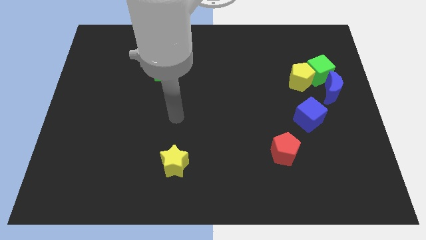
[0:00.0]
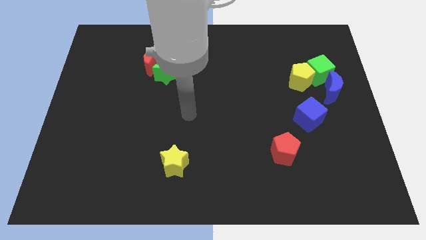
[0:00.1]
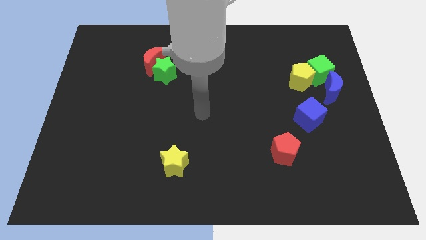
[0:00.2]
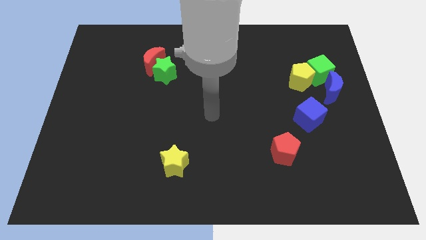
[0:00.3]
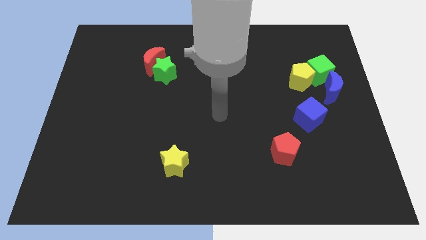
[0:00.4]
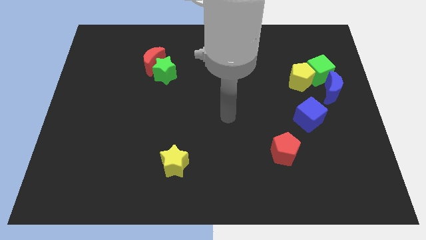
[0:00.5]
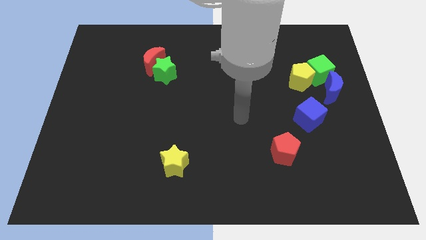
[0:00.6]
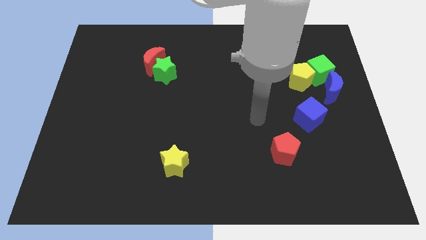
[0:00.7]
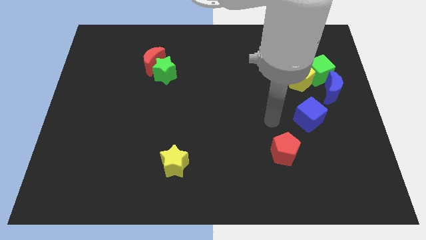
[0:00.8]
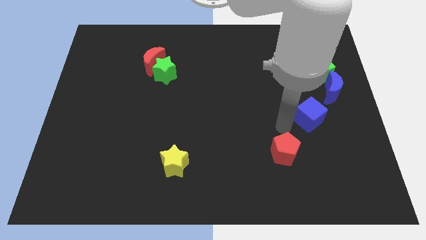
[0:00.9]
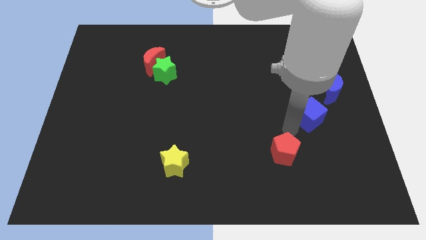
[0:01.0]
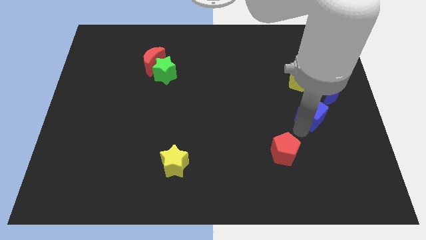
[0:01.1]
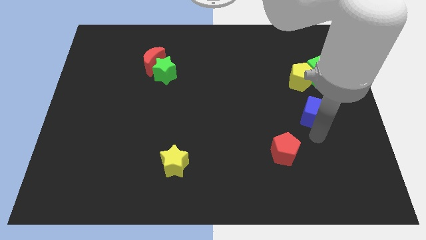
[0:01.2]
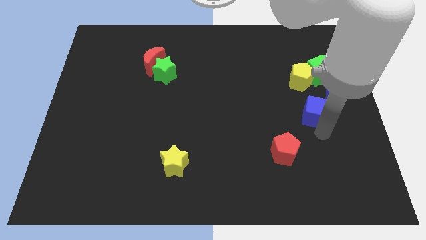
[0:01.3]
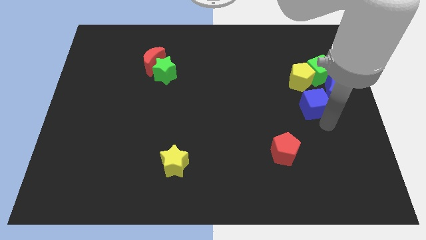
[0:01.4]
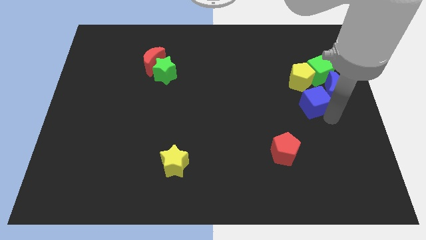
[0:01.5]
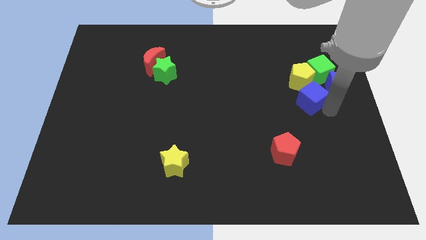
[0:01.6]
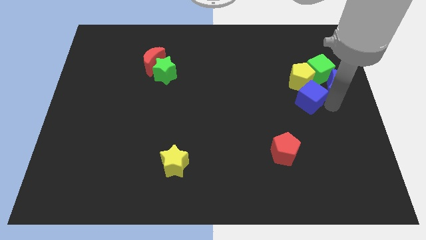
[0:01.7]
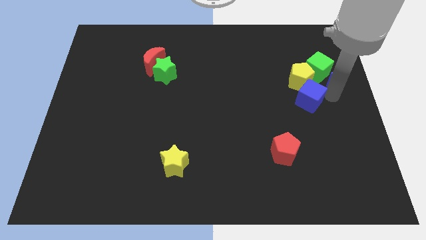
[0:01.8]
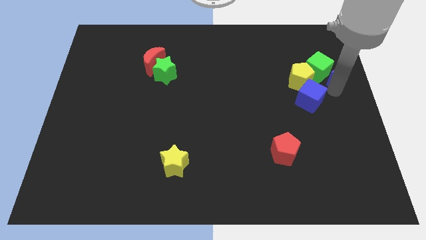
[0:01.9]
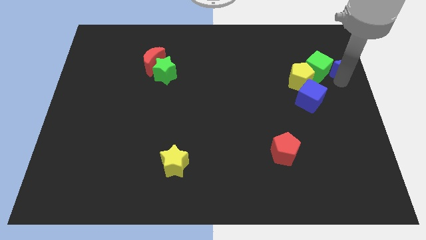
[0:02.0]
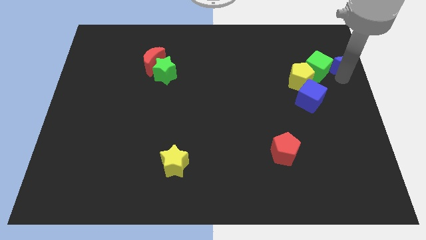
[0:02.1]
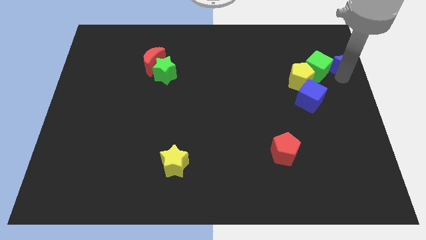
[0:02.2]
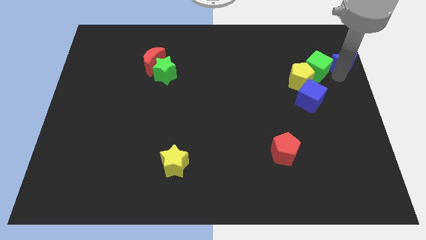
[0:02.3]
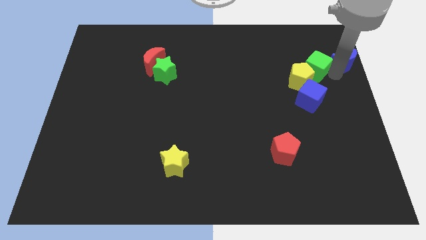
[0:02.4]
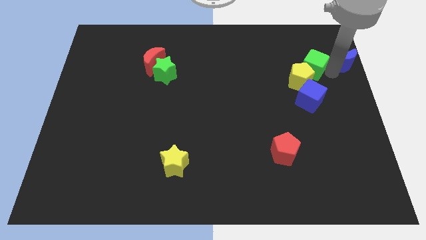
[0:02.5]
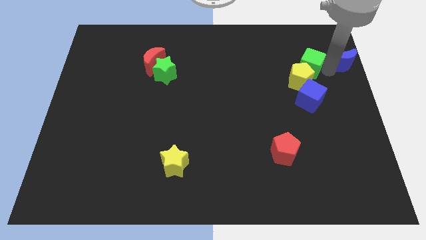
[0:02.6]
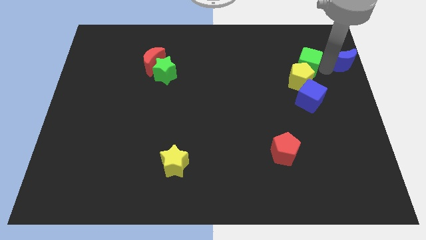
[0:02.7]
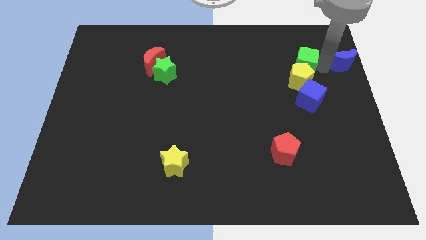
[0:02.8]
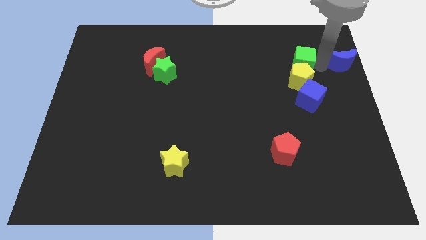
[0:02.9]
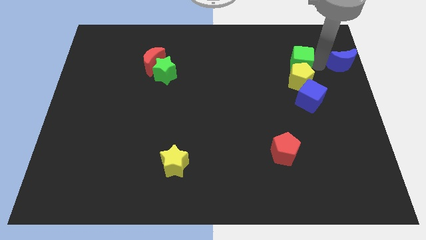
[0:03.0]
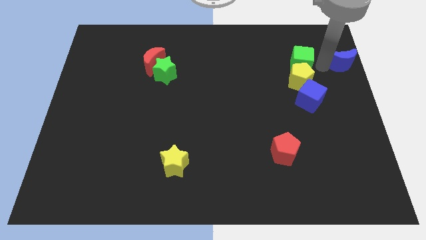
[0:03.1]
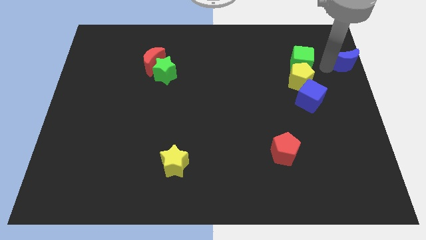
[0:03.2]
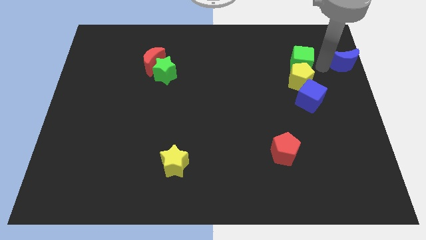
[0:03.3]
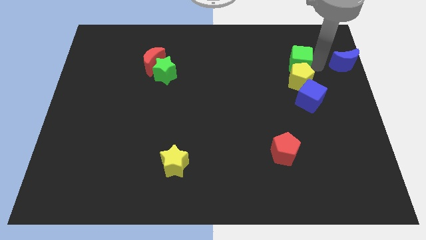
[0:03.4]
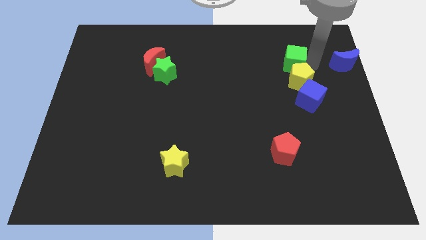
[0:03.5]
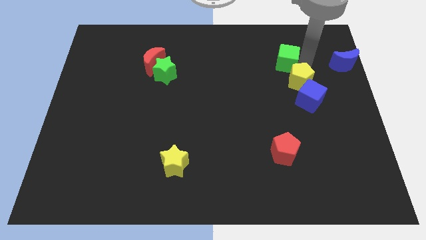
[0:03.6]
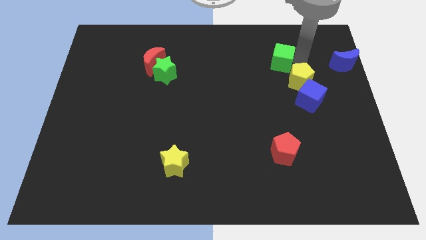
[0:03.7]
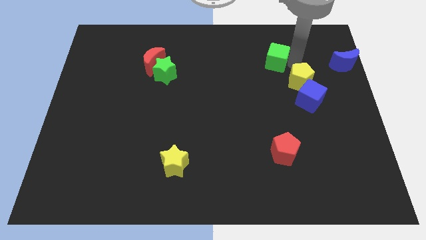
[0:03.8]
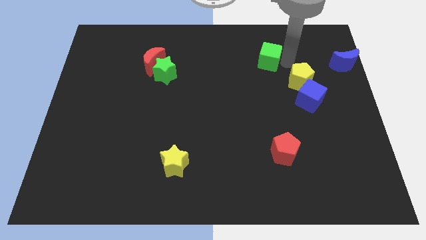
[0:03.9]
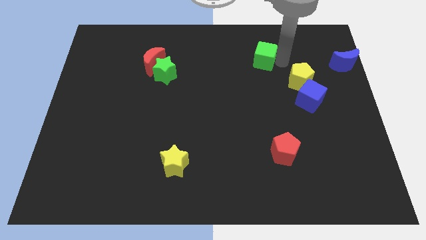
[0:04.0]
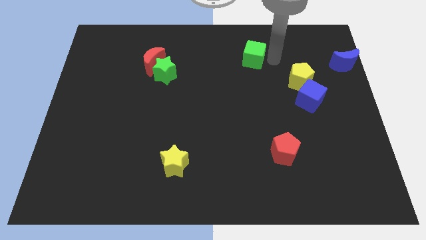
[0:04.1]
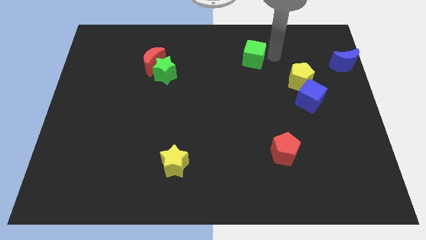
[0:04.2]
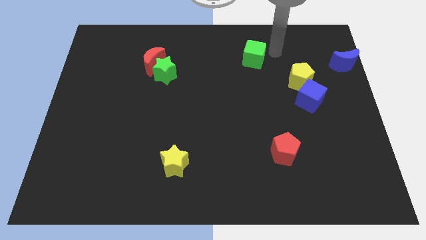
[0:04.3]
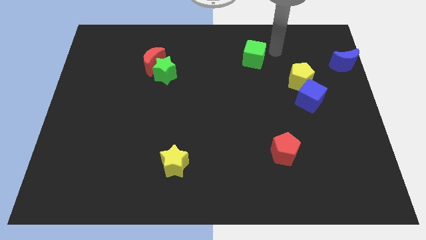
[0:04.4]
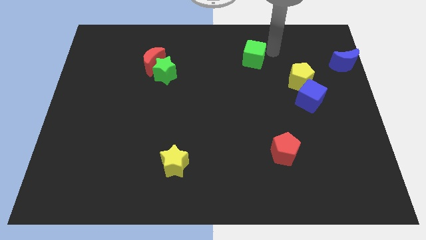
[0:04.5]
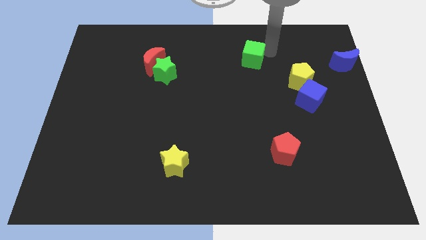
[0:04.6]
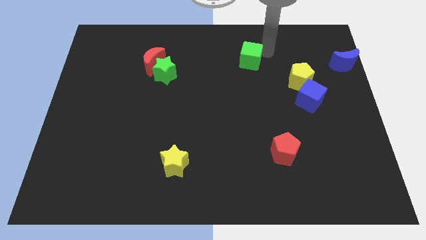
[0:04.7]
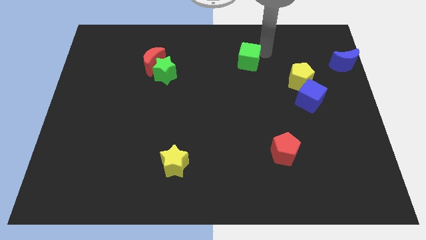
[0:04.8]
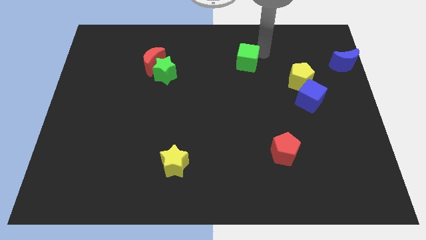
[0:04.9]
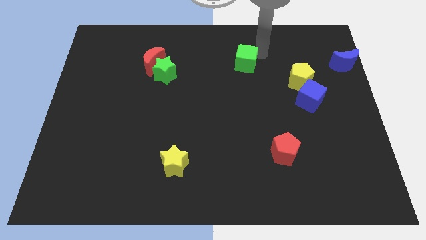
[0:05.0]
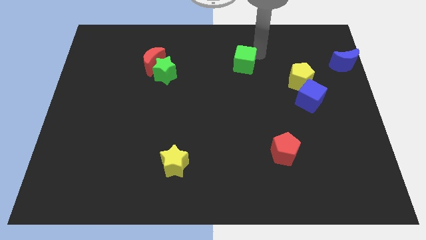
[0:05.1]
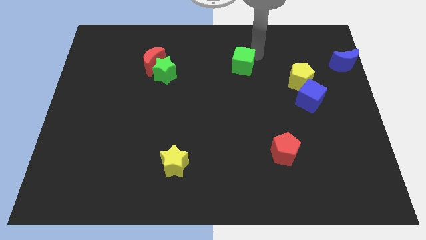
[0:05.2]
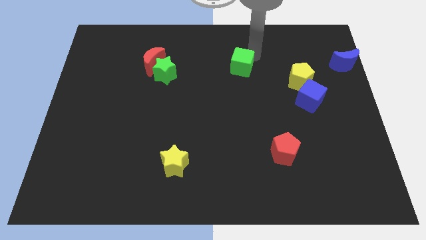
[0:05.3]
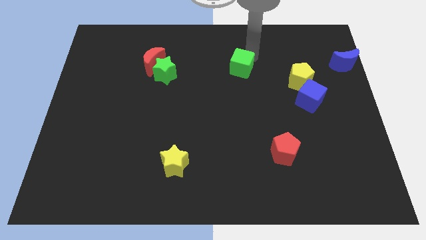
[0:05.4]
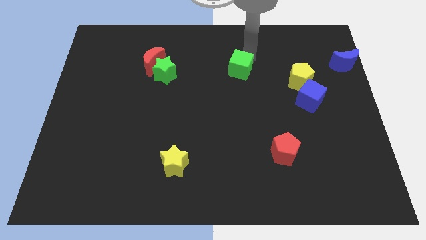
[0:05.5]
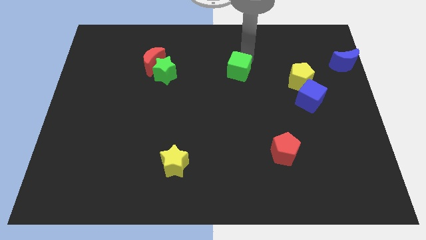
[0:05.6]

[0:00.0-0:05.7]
push the green cube to the left

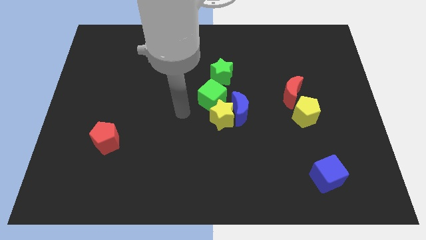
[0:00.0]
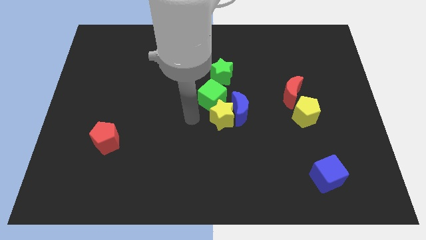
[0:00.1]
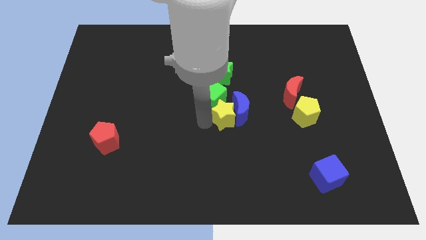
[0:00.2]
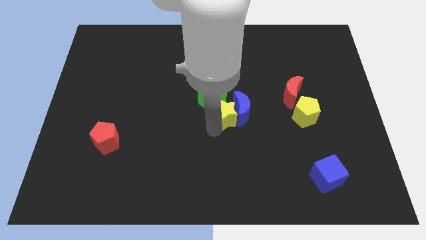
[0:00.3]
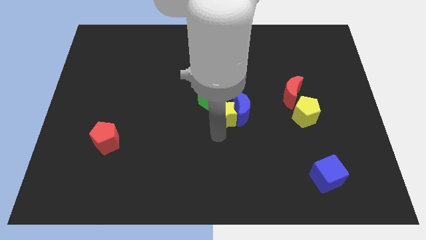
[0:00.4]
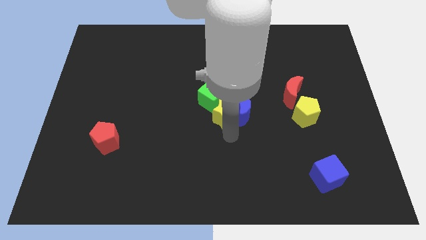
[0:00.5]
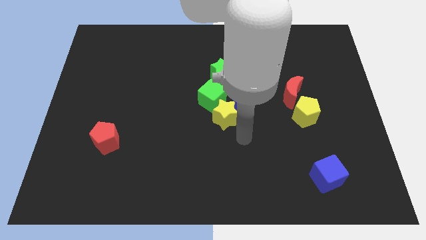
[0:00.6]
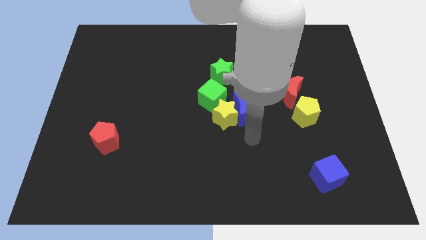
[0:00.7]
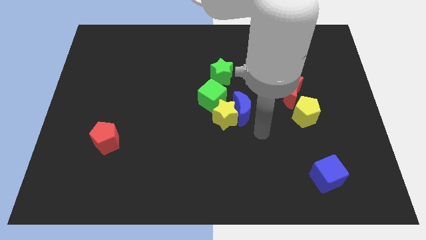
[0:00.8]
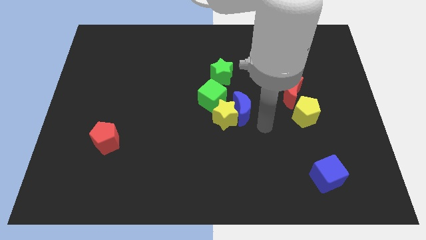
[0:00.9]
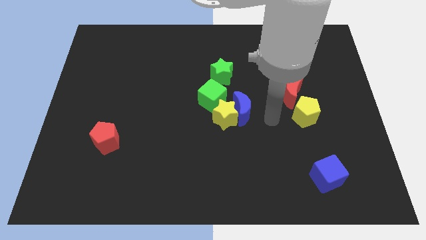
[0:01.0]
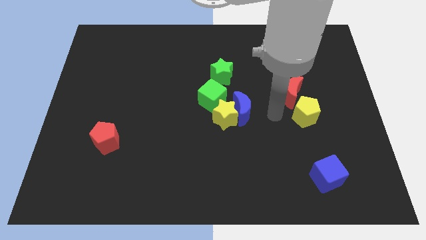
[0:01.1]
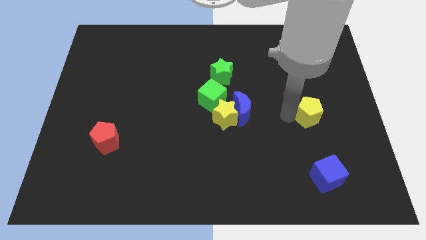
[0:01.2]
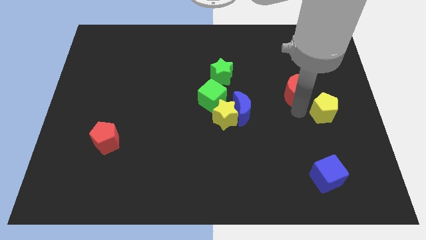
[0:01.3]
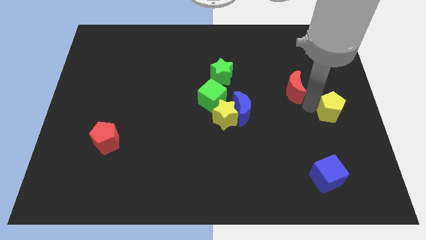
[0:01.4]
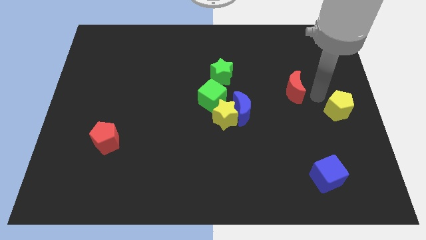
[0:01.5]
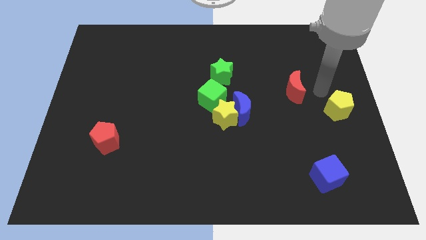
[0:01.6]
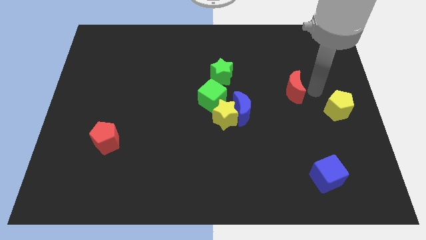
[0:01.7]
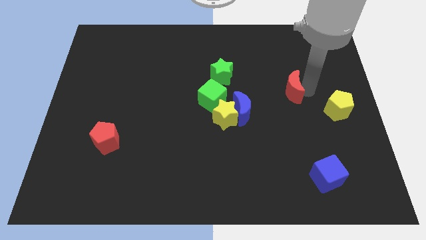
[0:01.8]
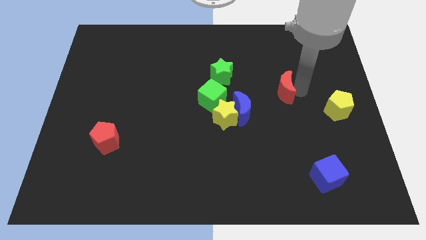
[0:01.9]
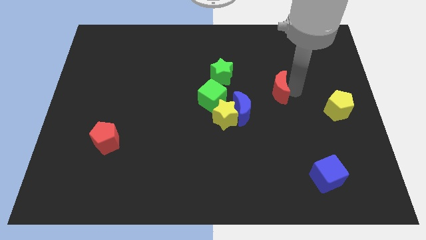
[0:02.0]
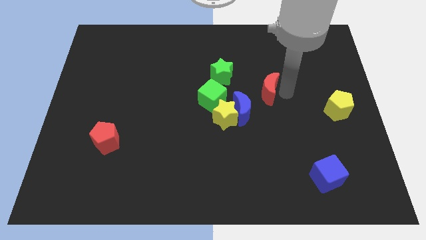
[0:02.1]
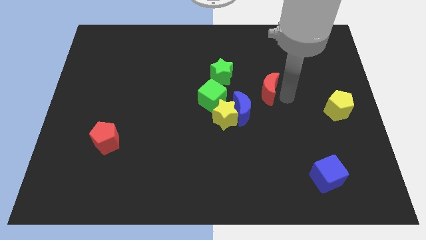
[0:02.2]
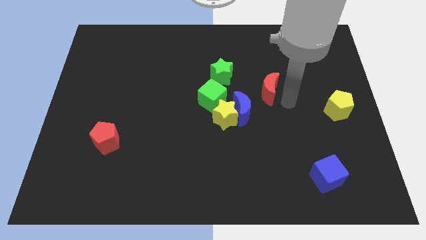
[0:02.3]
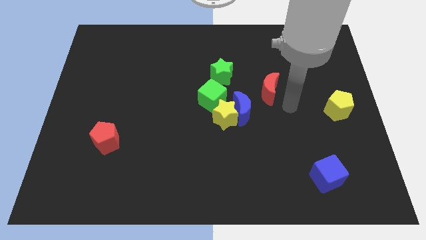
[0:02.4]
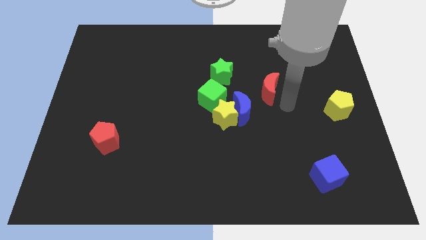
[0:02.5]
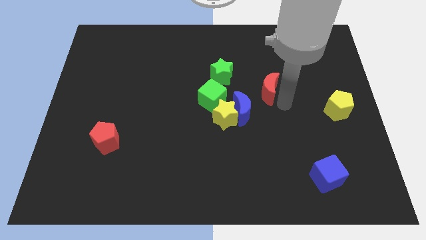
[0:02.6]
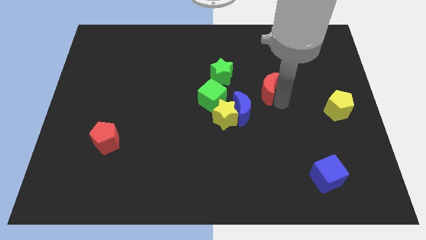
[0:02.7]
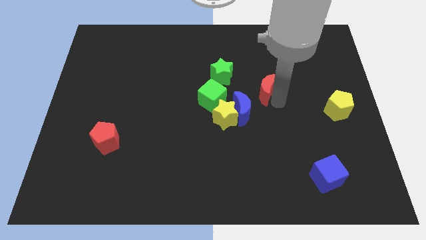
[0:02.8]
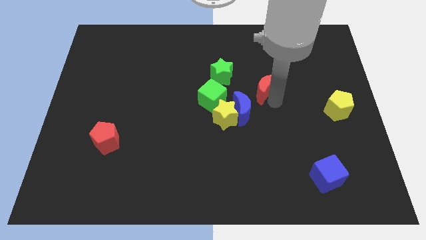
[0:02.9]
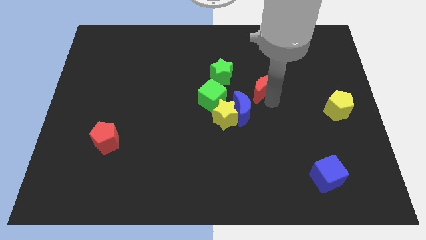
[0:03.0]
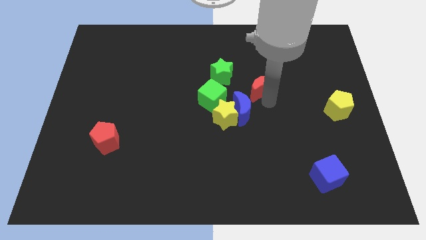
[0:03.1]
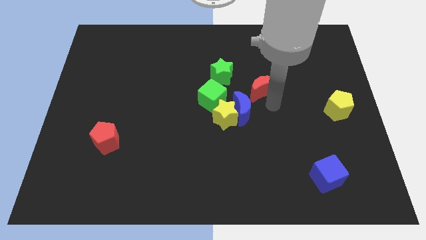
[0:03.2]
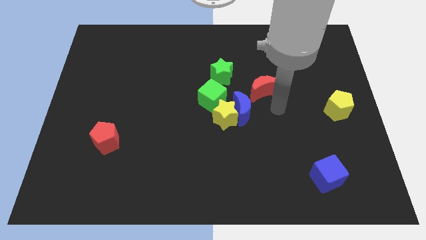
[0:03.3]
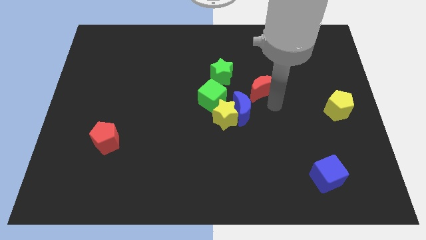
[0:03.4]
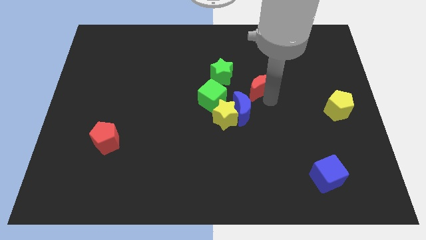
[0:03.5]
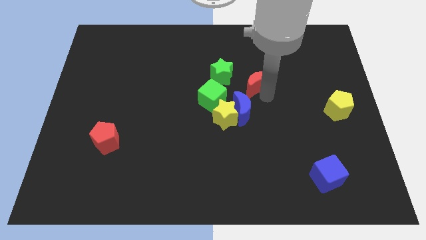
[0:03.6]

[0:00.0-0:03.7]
slightly push the red moon up and left
